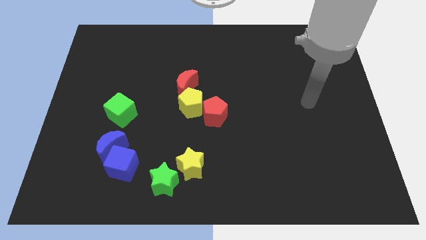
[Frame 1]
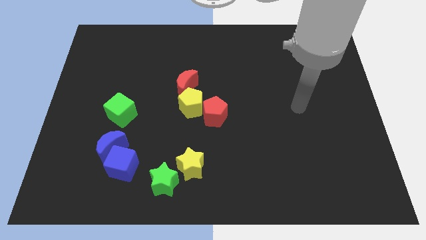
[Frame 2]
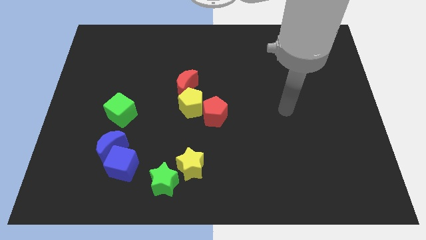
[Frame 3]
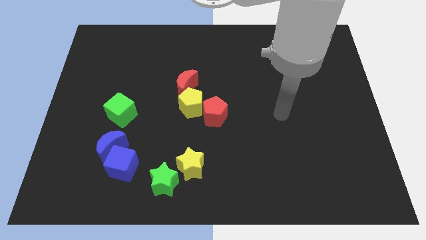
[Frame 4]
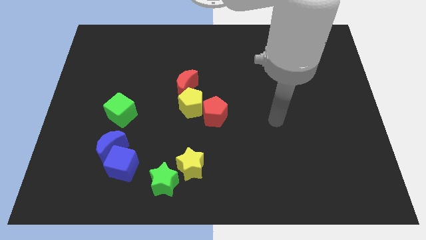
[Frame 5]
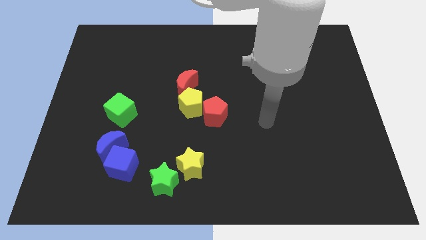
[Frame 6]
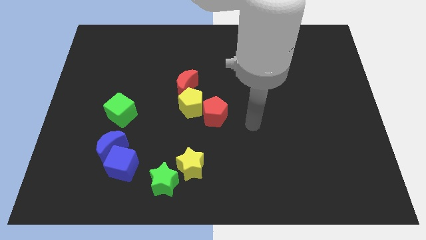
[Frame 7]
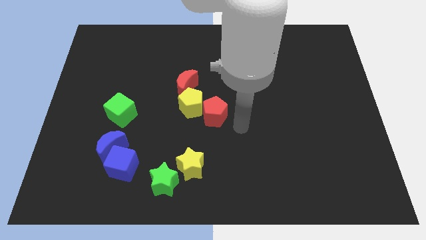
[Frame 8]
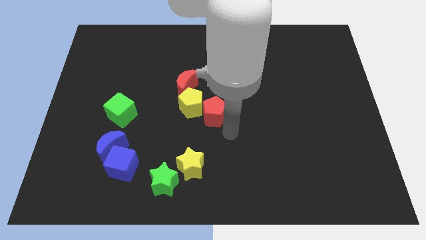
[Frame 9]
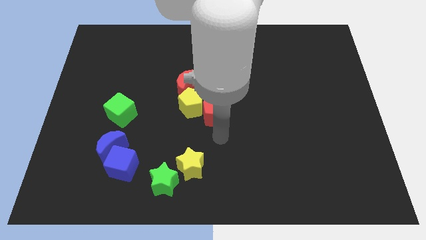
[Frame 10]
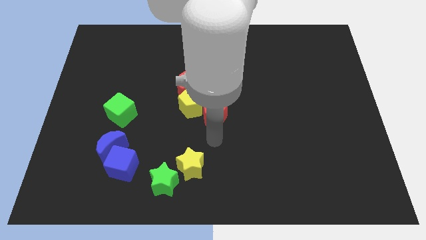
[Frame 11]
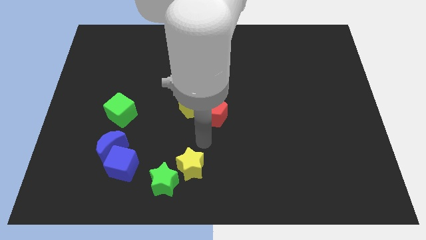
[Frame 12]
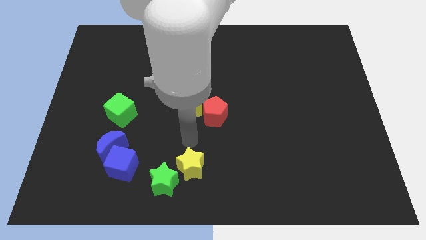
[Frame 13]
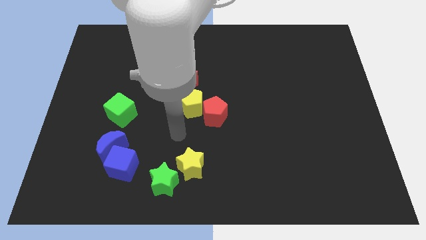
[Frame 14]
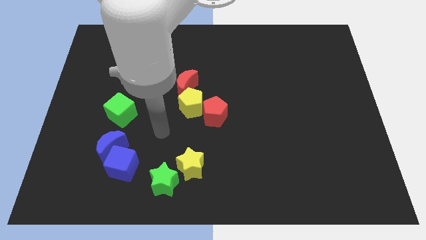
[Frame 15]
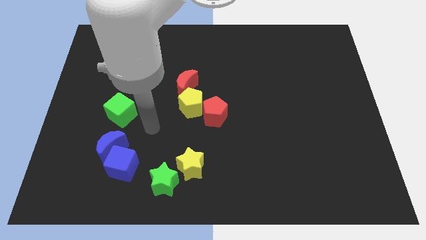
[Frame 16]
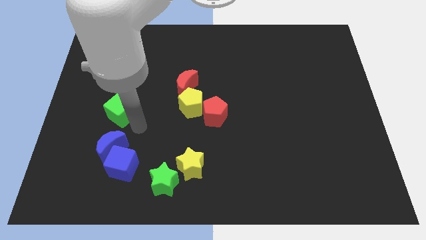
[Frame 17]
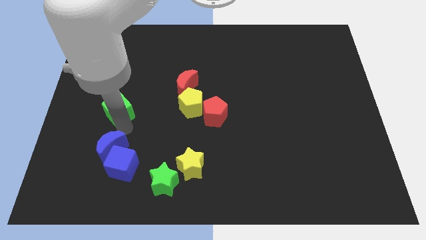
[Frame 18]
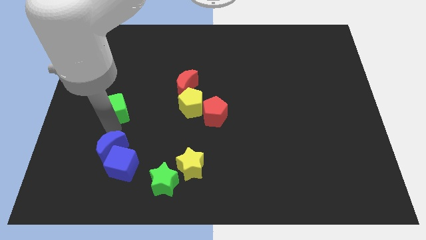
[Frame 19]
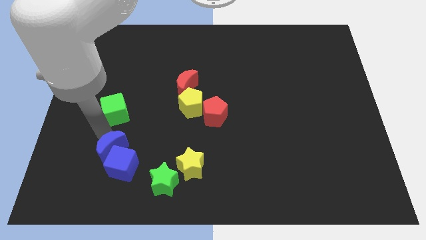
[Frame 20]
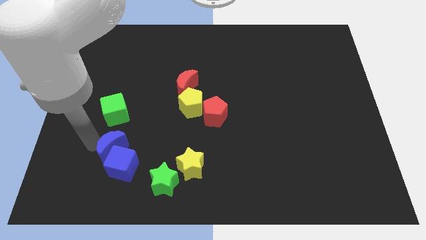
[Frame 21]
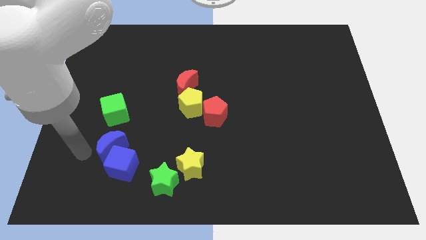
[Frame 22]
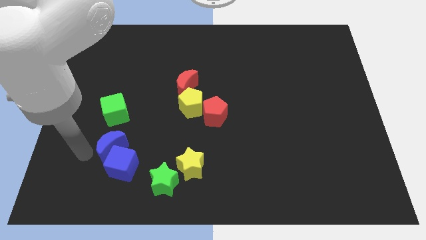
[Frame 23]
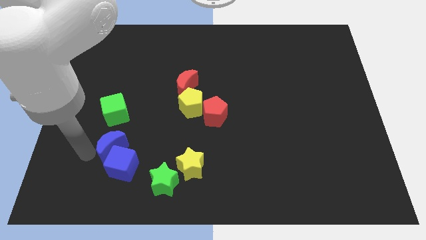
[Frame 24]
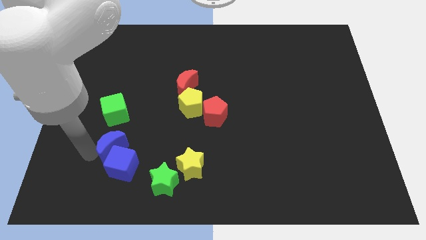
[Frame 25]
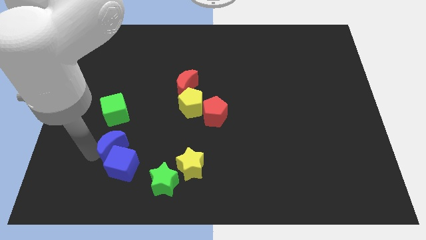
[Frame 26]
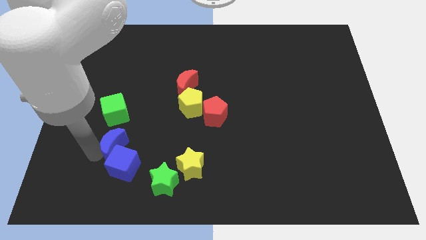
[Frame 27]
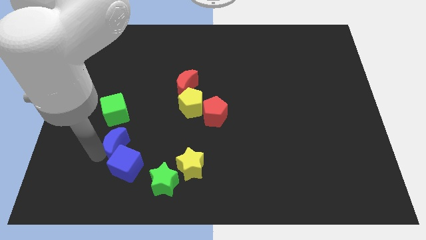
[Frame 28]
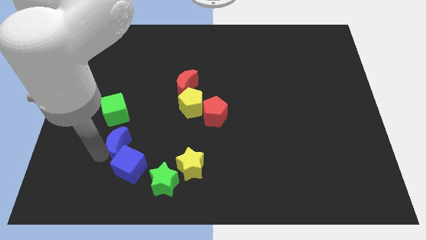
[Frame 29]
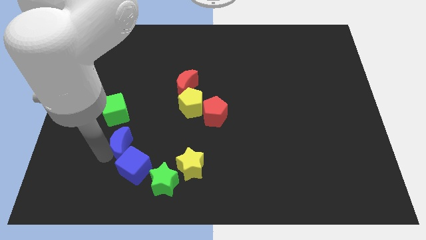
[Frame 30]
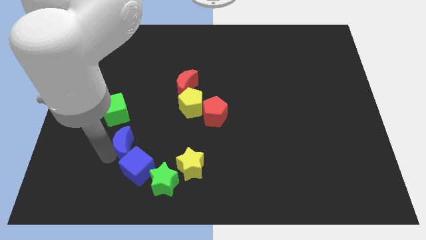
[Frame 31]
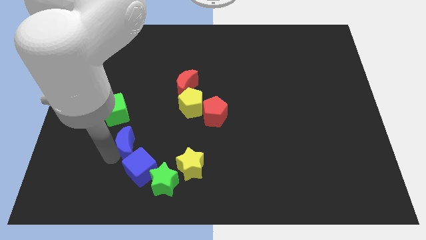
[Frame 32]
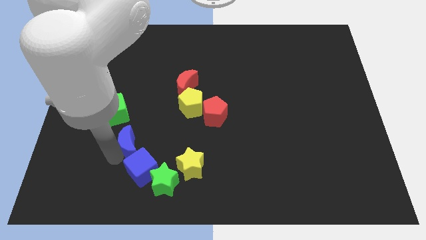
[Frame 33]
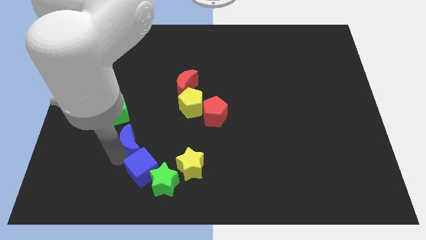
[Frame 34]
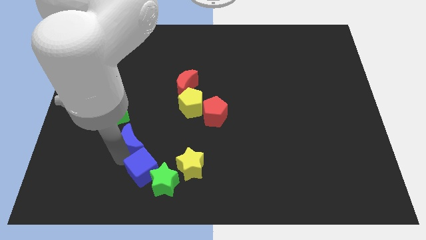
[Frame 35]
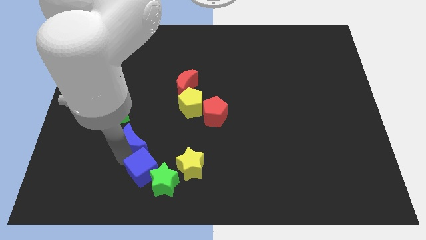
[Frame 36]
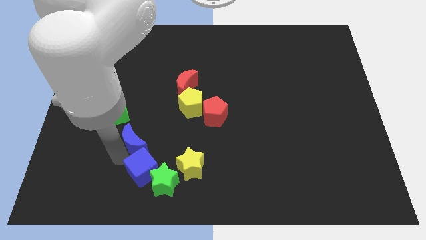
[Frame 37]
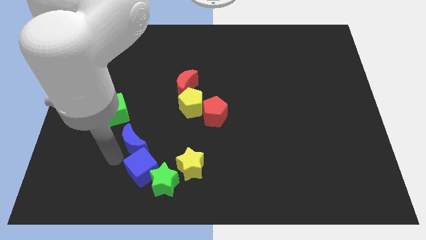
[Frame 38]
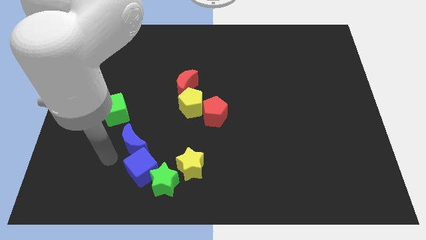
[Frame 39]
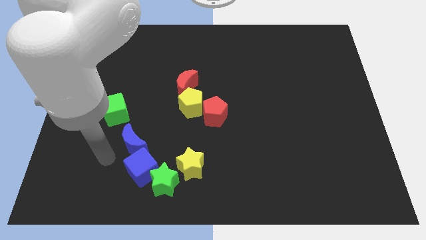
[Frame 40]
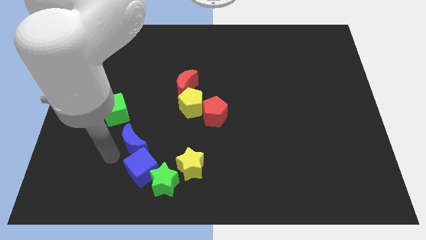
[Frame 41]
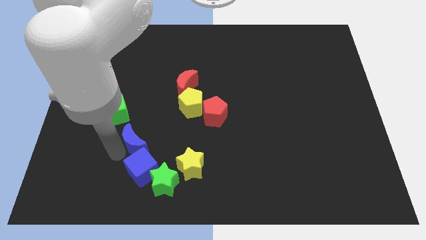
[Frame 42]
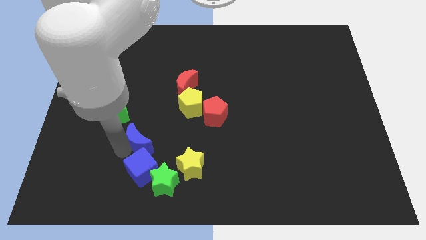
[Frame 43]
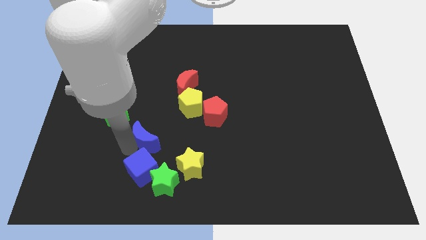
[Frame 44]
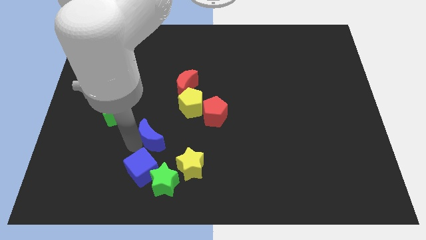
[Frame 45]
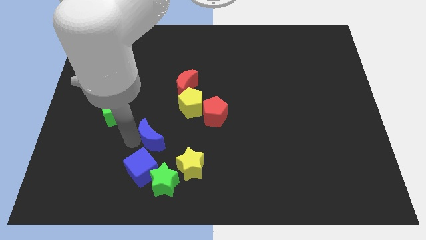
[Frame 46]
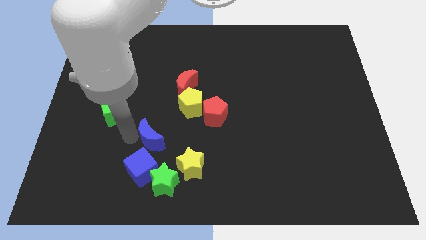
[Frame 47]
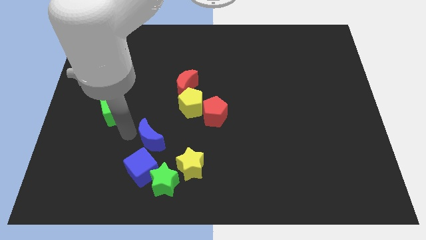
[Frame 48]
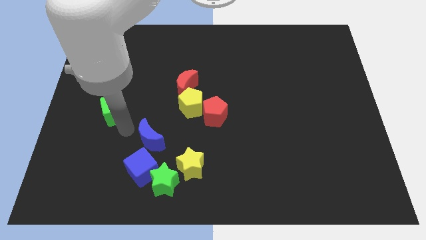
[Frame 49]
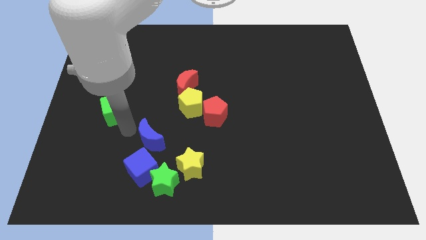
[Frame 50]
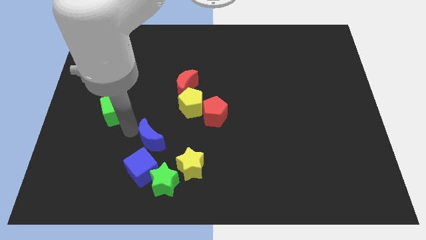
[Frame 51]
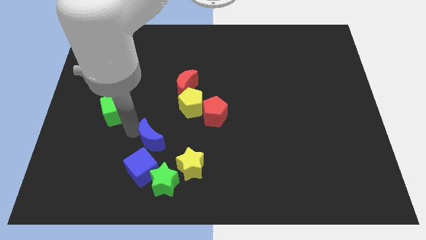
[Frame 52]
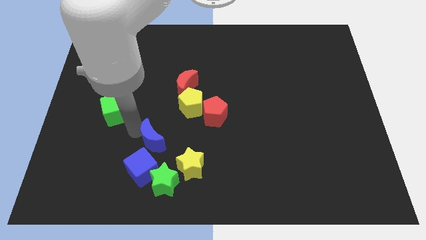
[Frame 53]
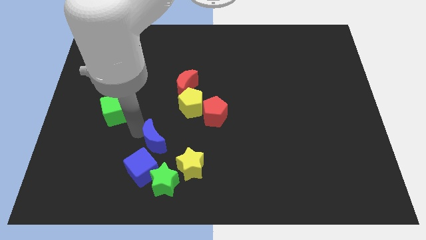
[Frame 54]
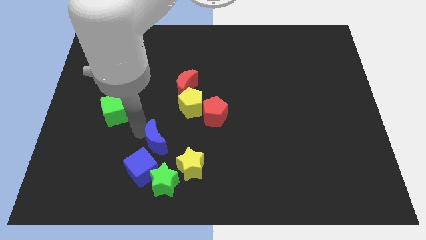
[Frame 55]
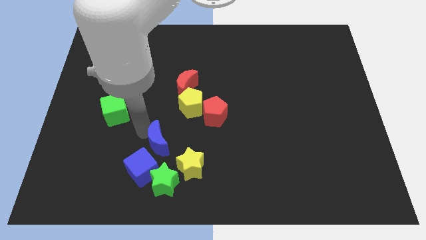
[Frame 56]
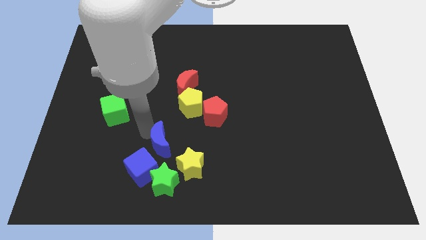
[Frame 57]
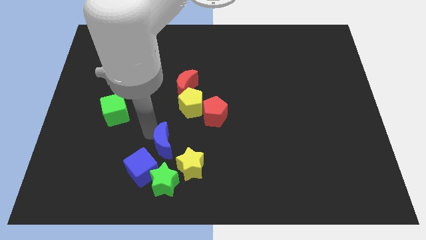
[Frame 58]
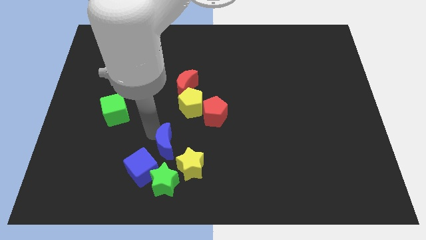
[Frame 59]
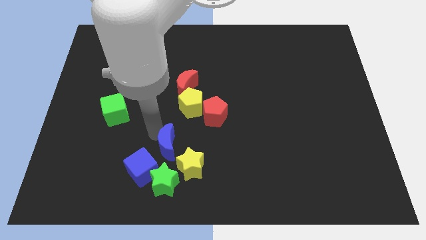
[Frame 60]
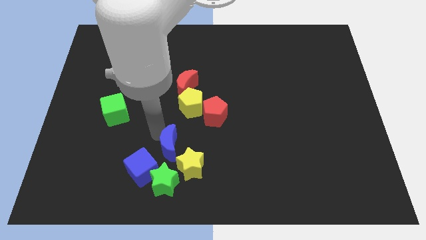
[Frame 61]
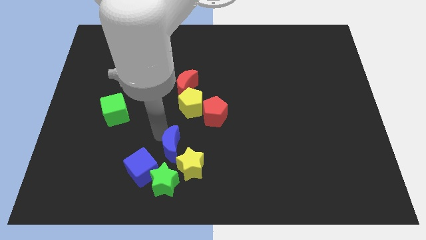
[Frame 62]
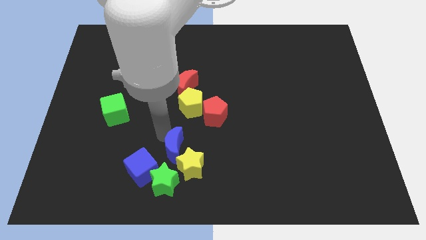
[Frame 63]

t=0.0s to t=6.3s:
move the blue moon diagonally up and to the right of the green star
